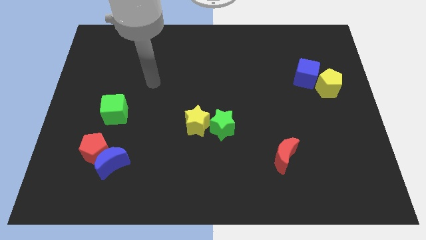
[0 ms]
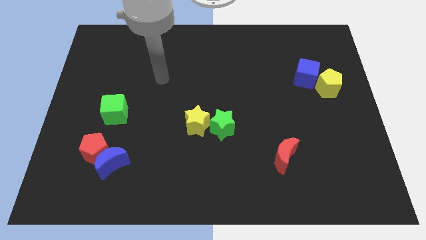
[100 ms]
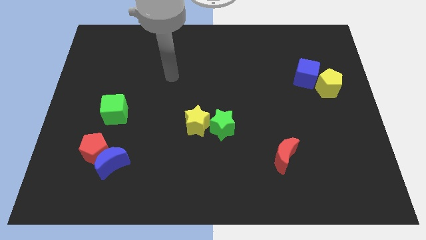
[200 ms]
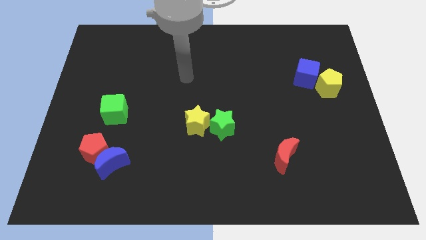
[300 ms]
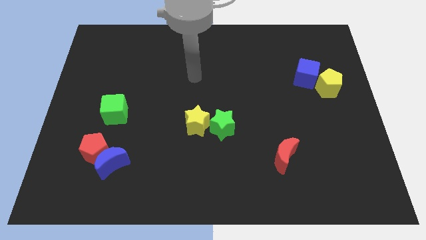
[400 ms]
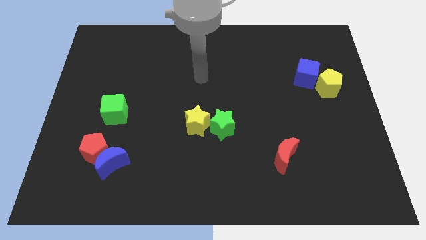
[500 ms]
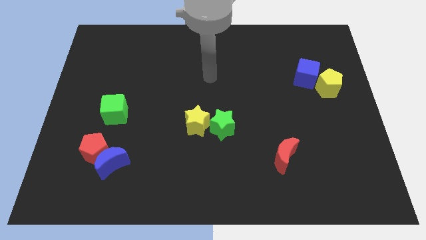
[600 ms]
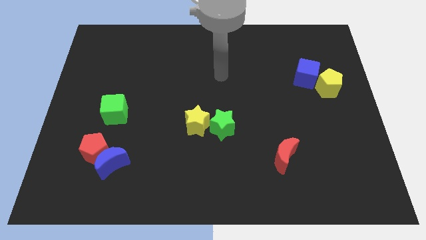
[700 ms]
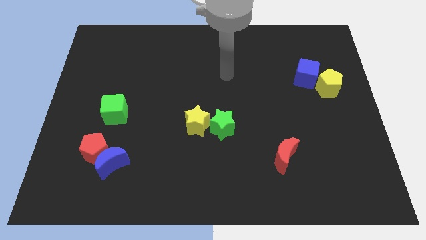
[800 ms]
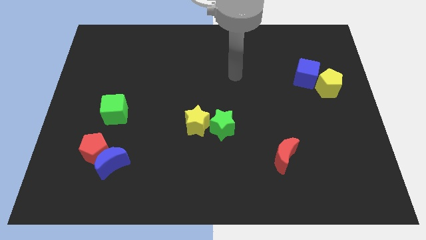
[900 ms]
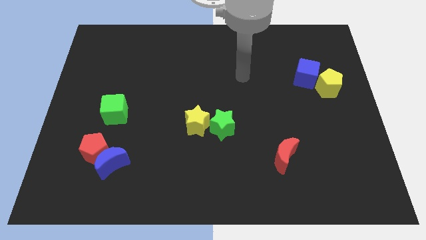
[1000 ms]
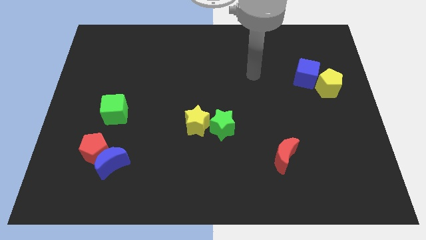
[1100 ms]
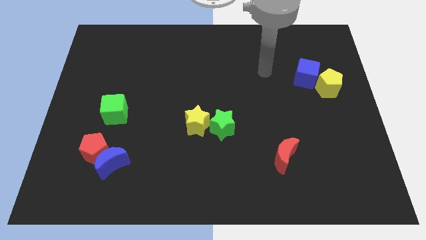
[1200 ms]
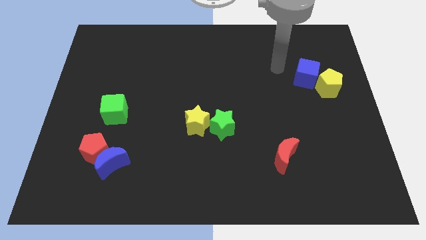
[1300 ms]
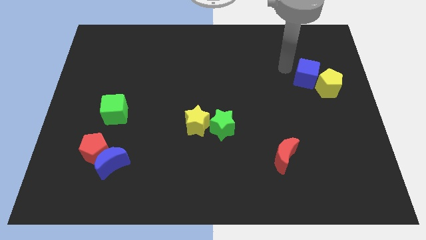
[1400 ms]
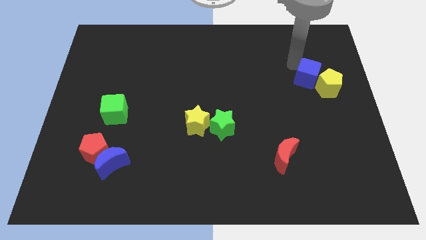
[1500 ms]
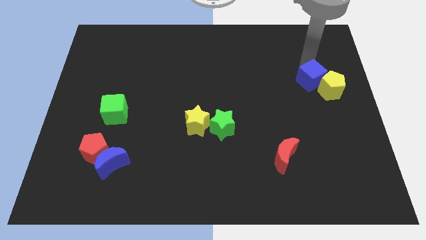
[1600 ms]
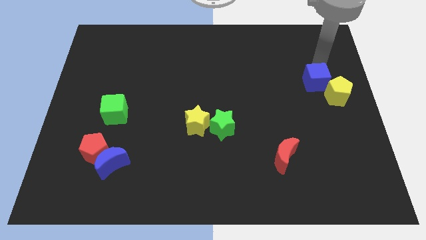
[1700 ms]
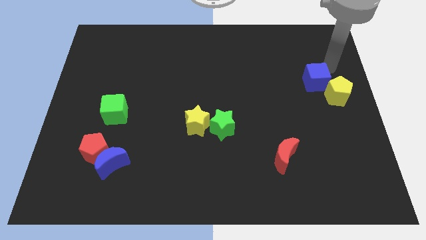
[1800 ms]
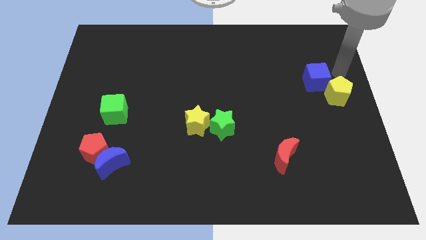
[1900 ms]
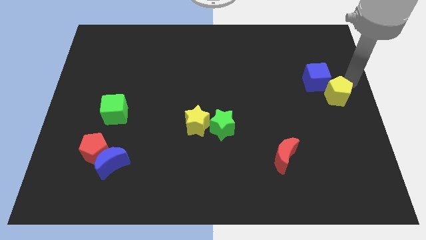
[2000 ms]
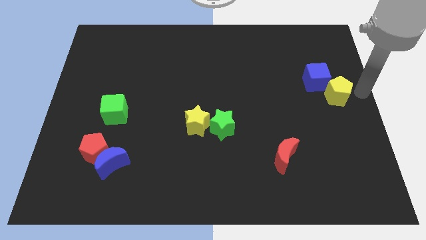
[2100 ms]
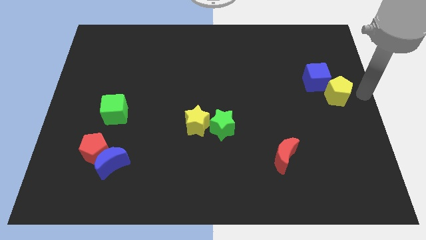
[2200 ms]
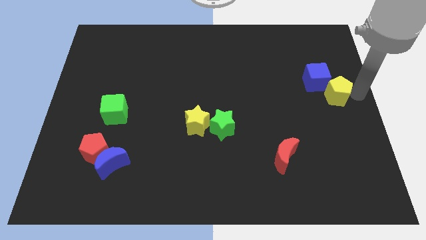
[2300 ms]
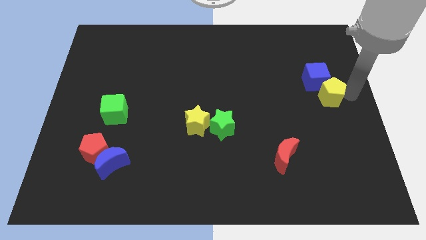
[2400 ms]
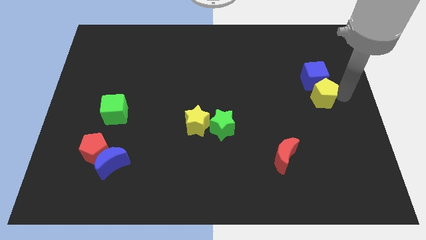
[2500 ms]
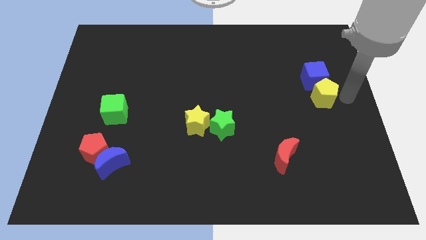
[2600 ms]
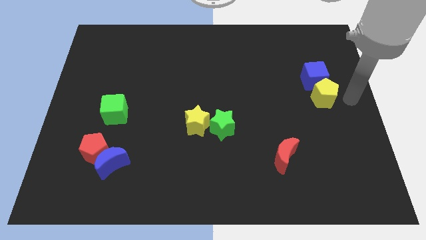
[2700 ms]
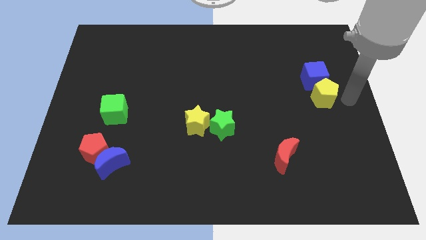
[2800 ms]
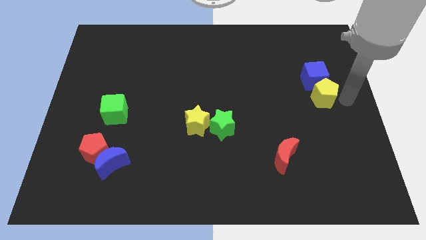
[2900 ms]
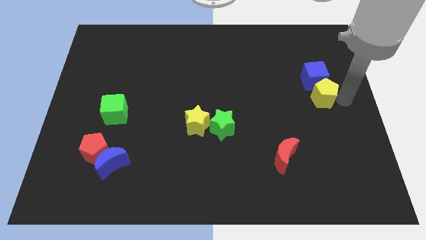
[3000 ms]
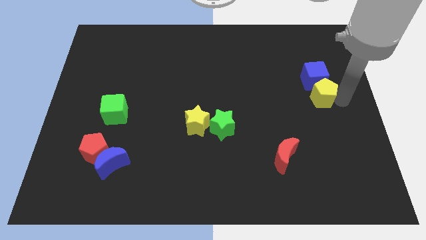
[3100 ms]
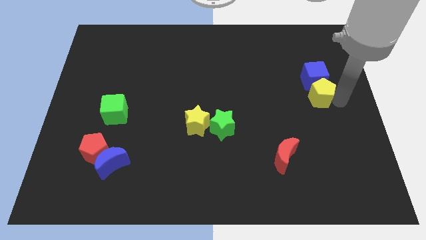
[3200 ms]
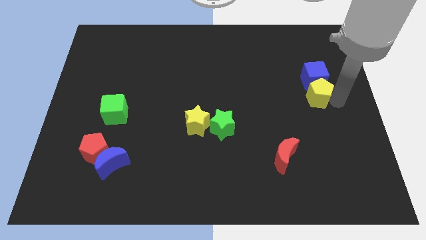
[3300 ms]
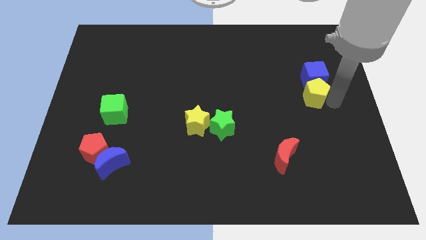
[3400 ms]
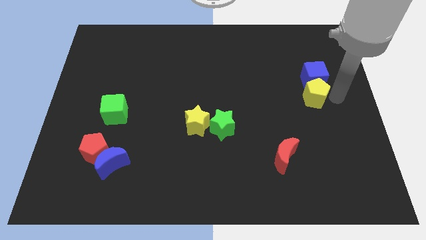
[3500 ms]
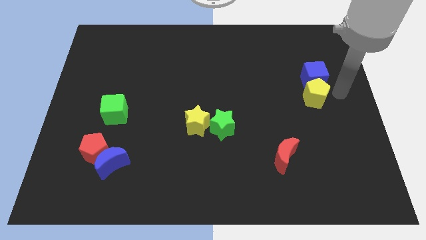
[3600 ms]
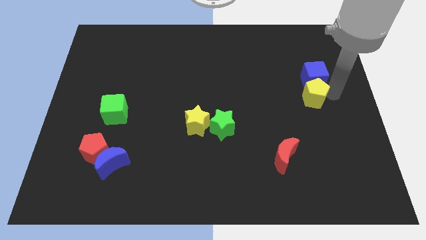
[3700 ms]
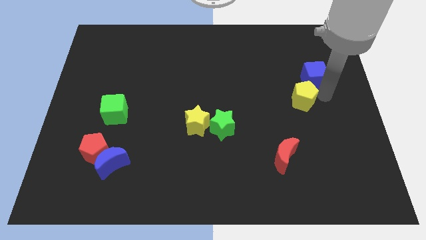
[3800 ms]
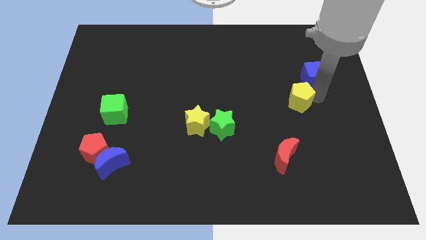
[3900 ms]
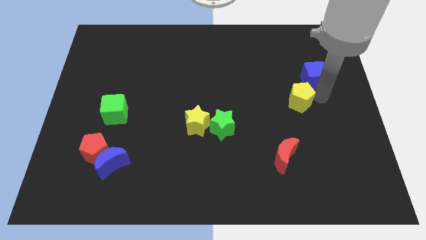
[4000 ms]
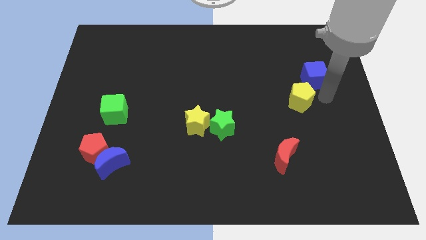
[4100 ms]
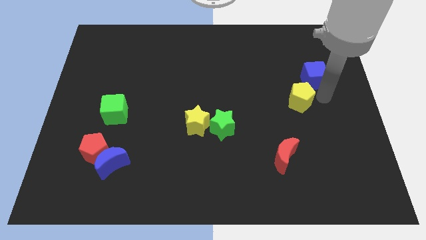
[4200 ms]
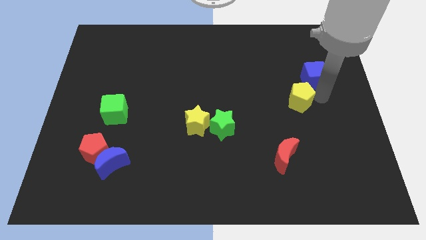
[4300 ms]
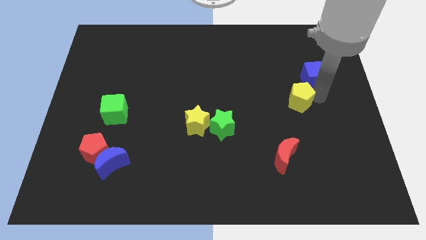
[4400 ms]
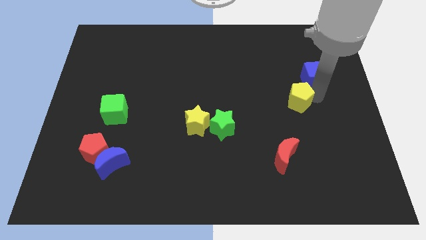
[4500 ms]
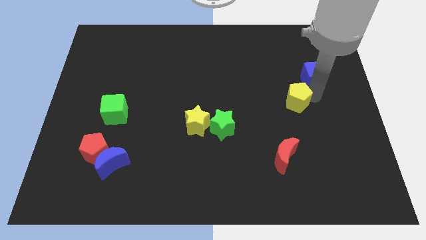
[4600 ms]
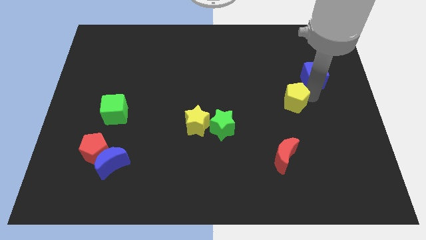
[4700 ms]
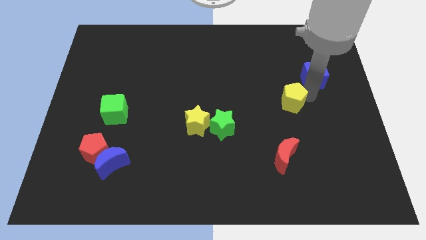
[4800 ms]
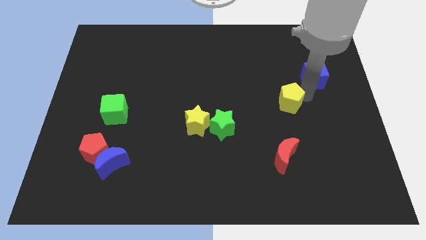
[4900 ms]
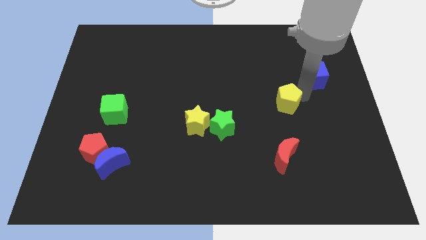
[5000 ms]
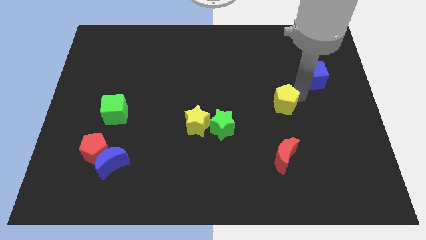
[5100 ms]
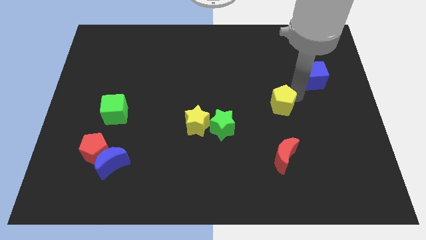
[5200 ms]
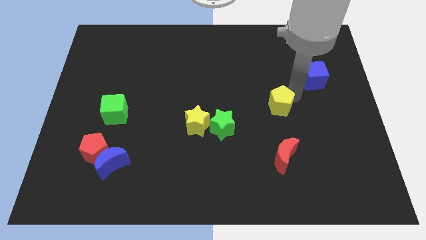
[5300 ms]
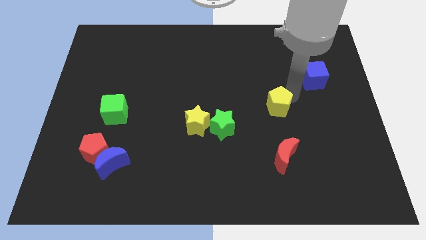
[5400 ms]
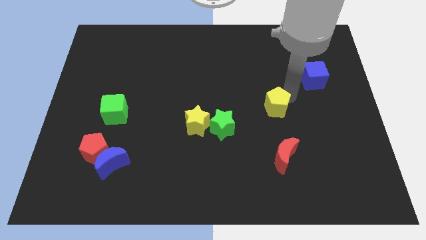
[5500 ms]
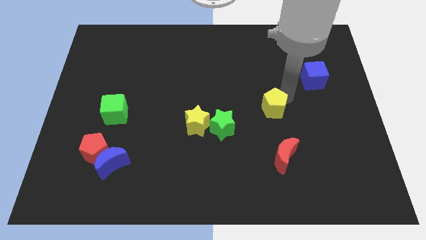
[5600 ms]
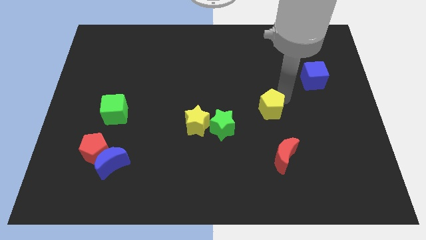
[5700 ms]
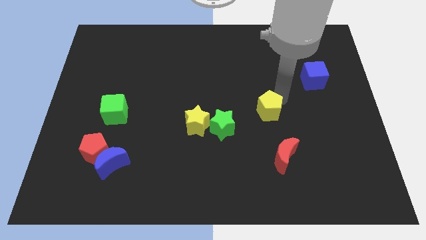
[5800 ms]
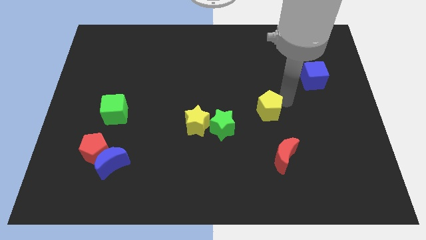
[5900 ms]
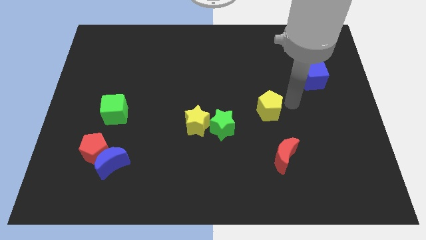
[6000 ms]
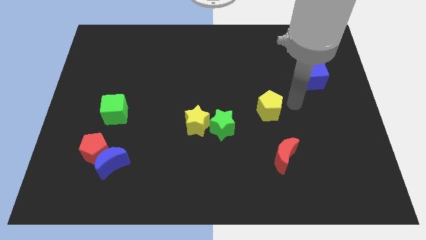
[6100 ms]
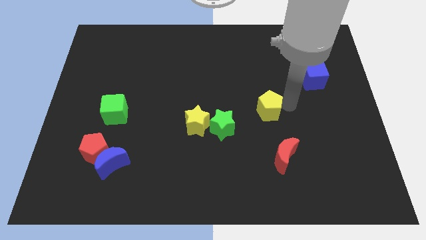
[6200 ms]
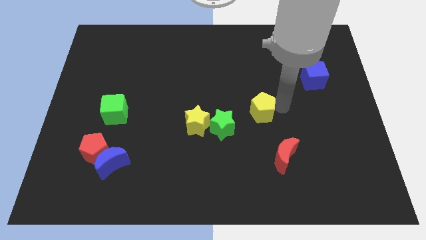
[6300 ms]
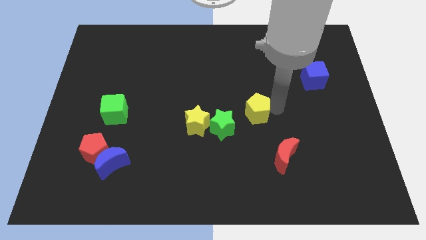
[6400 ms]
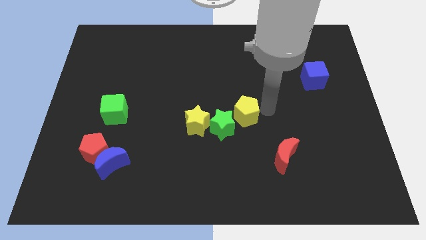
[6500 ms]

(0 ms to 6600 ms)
slide the yellow pentagon to the green star

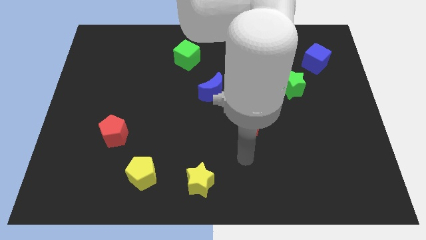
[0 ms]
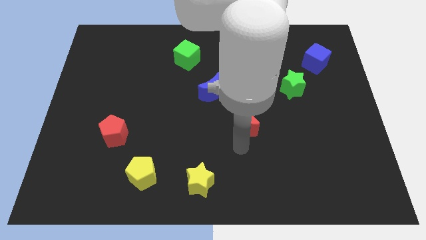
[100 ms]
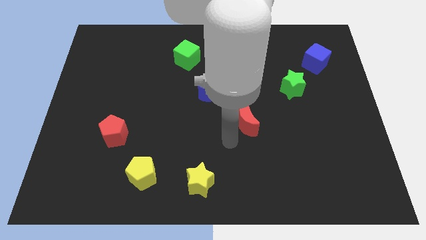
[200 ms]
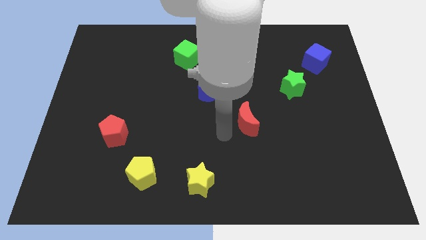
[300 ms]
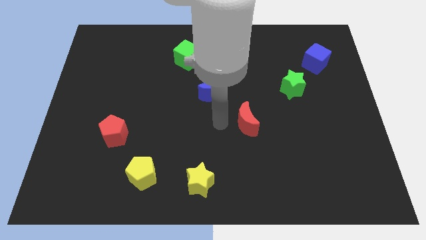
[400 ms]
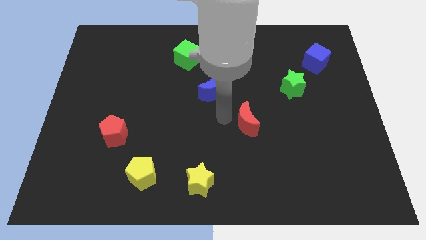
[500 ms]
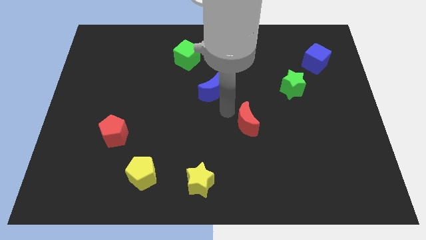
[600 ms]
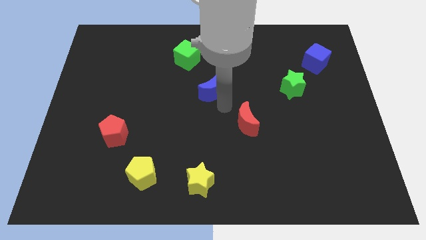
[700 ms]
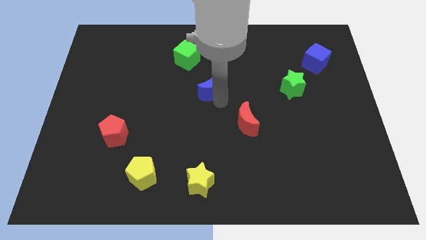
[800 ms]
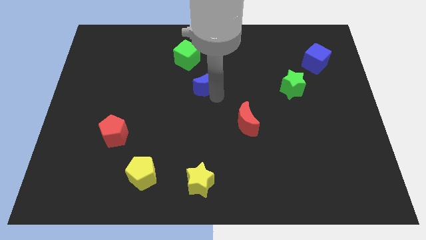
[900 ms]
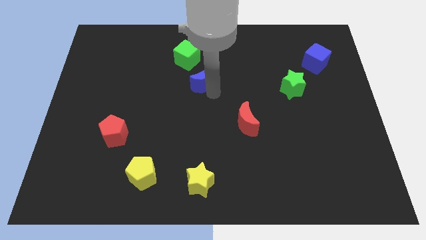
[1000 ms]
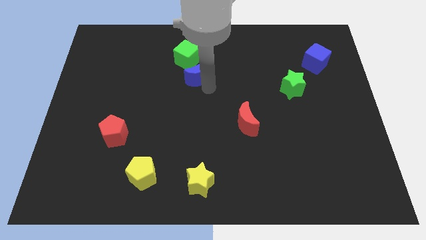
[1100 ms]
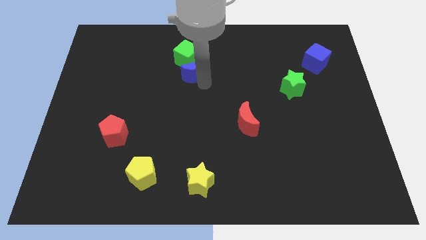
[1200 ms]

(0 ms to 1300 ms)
put the blue moon towards the green cube
